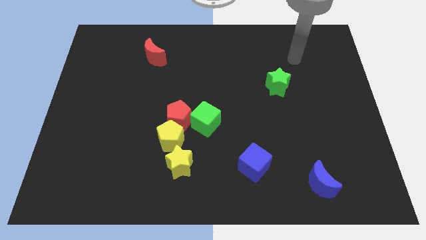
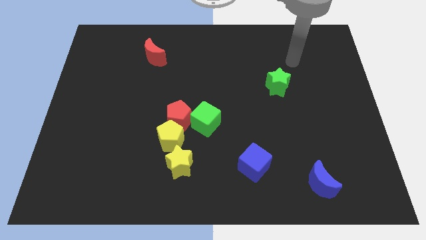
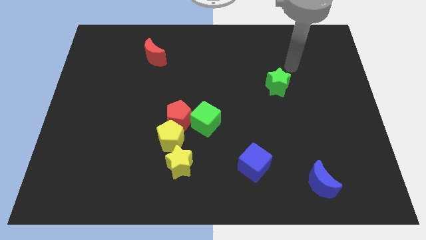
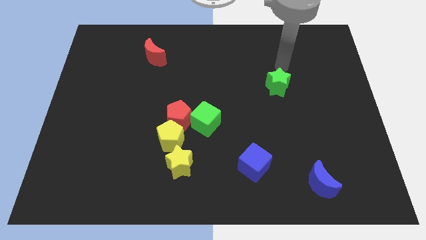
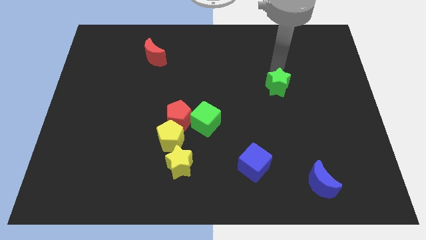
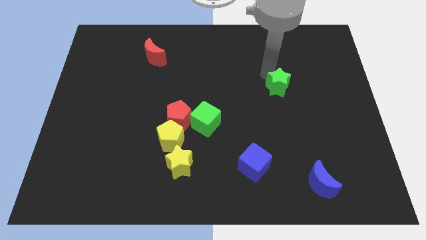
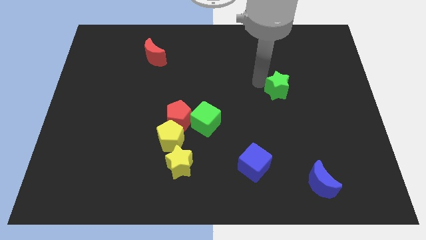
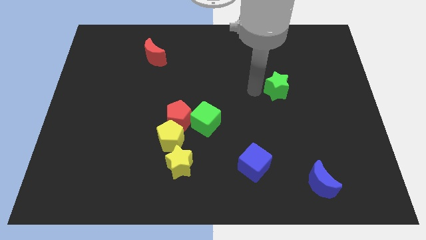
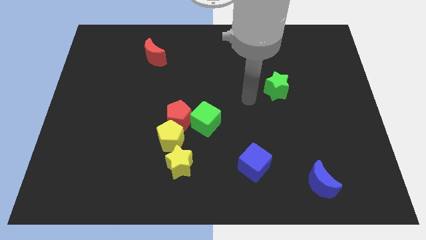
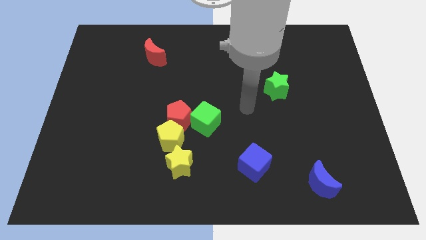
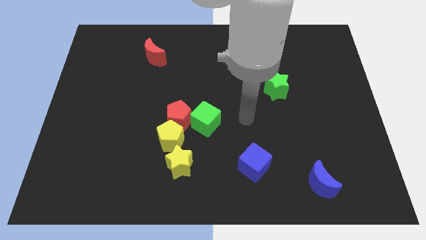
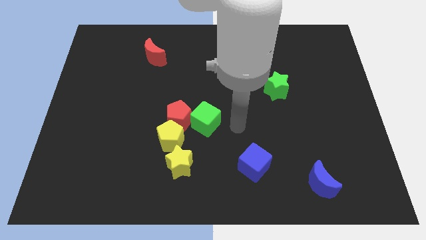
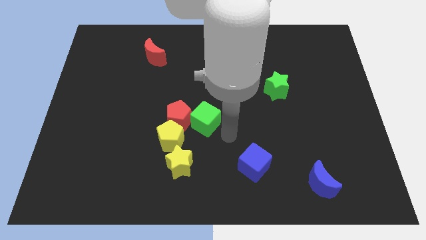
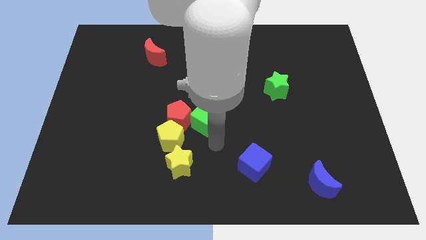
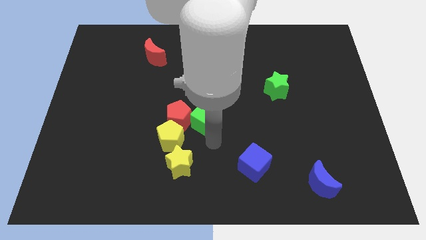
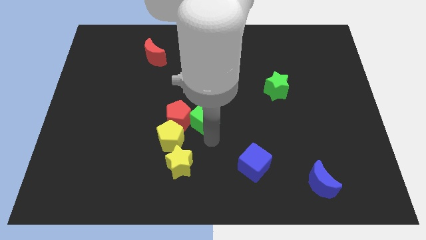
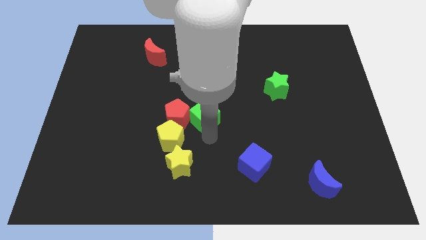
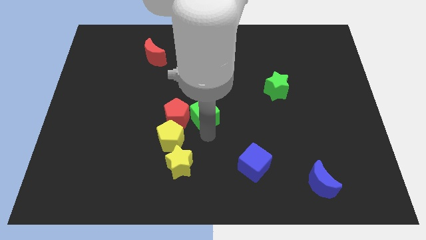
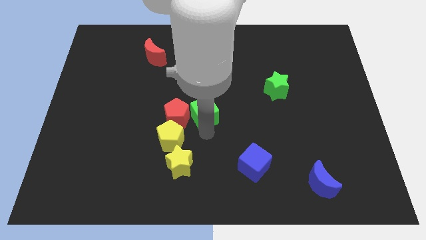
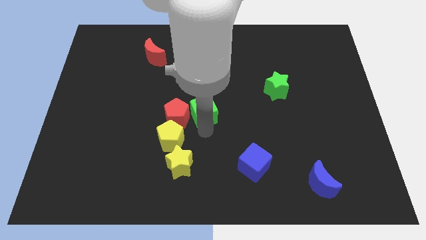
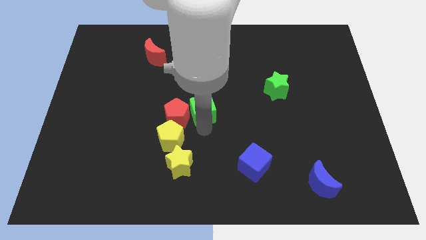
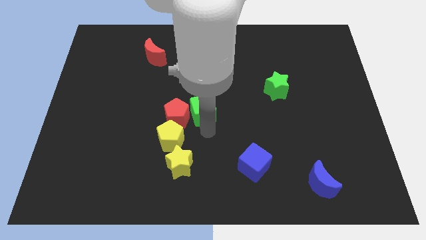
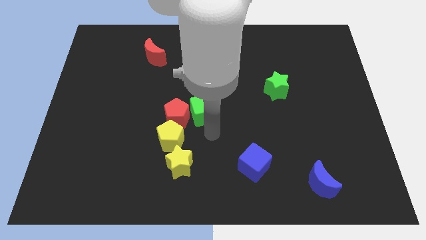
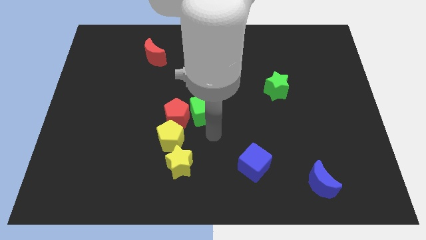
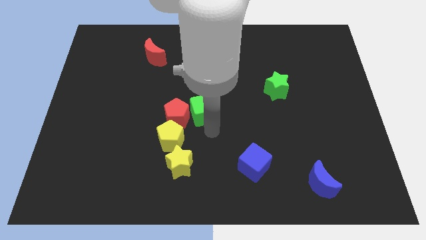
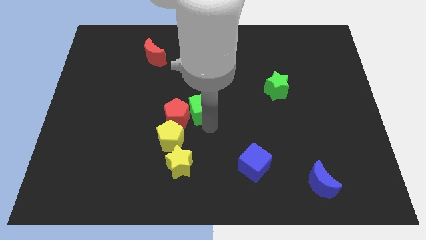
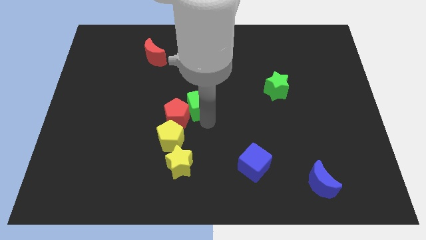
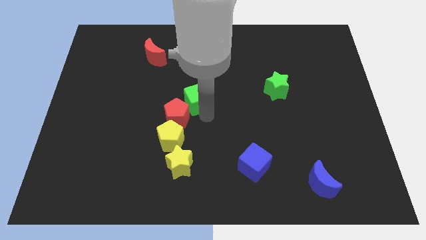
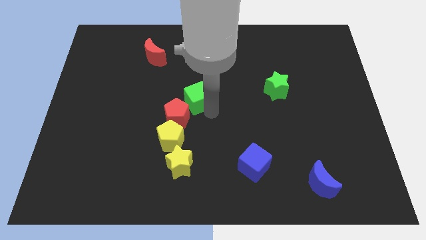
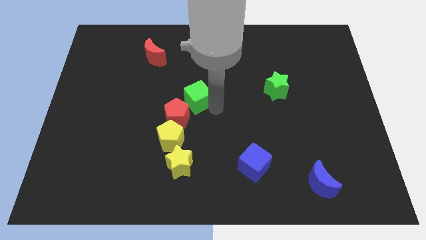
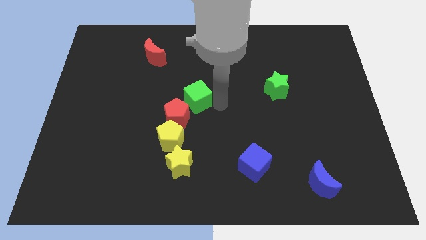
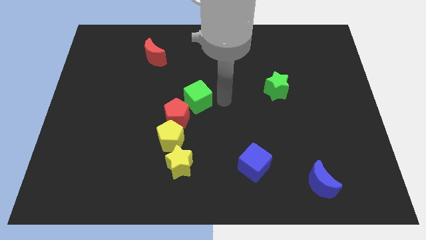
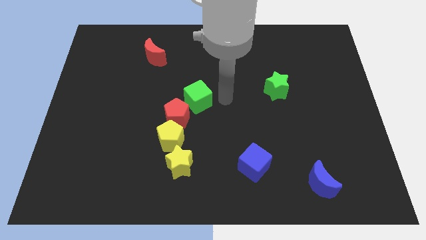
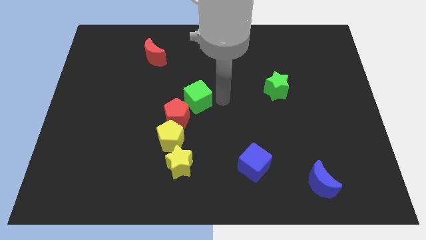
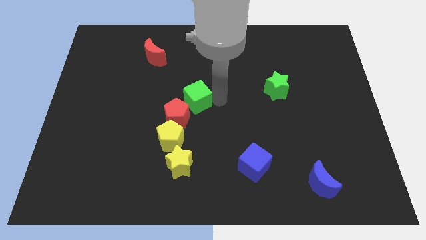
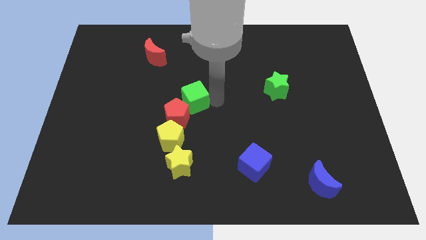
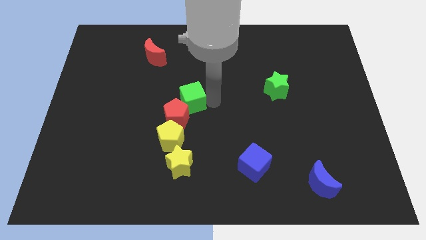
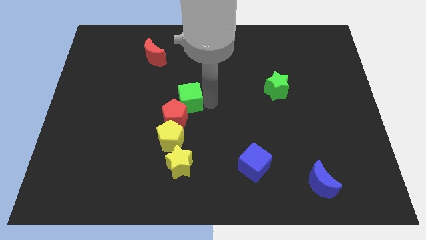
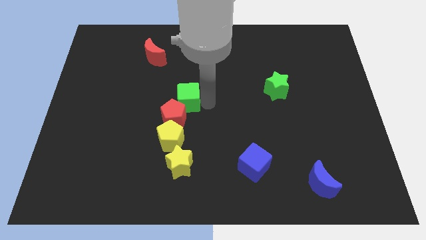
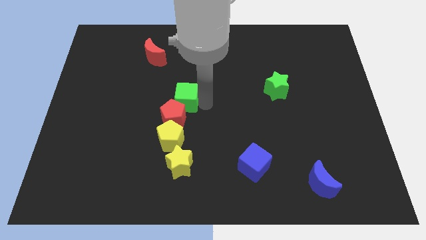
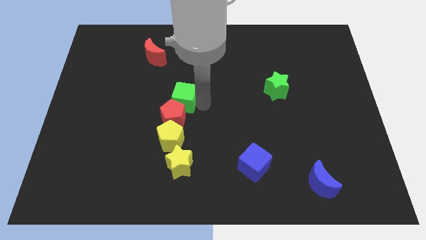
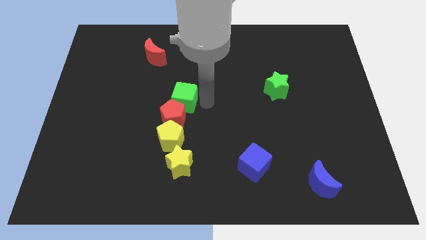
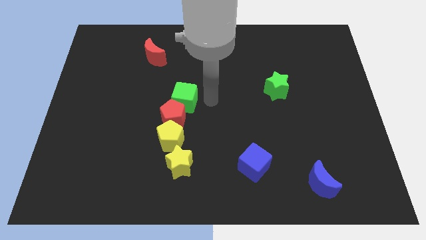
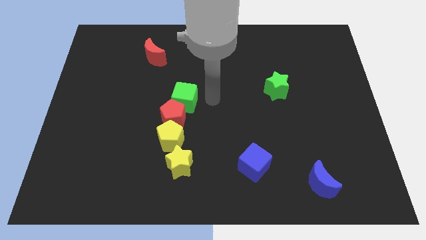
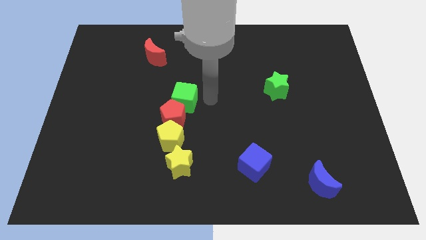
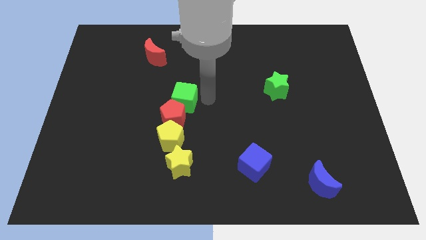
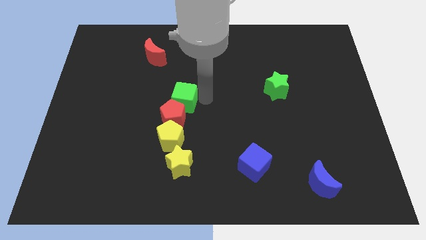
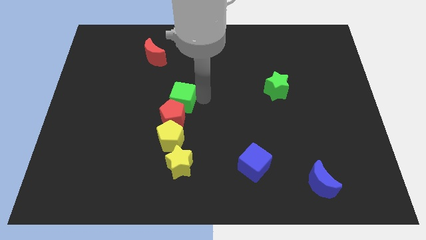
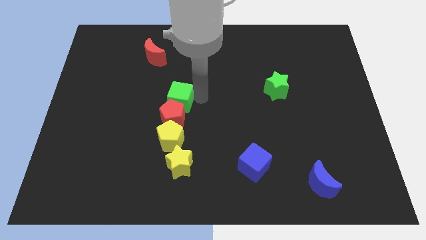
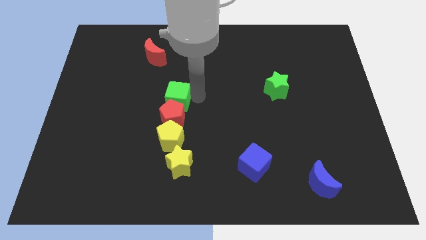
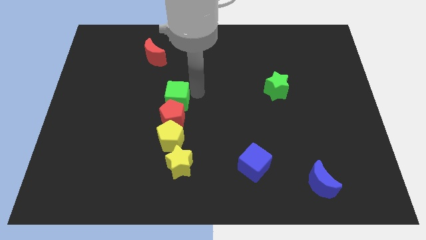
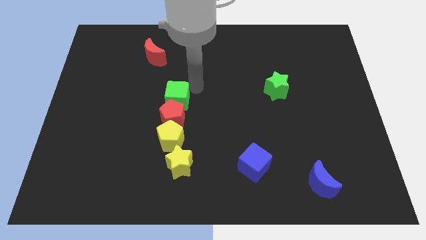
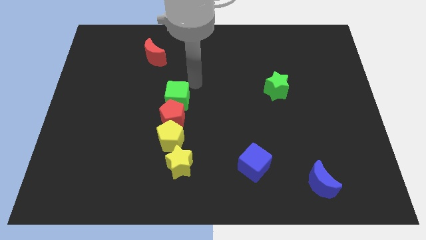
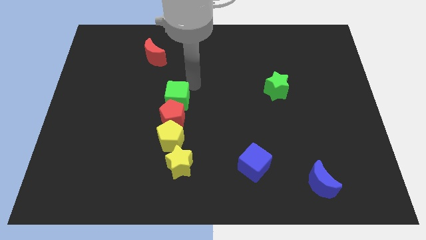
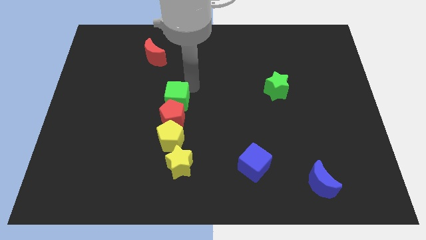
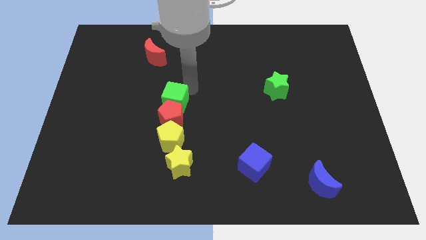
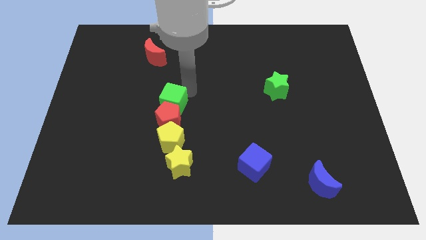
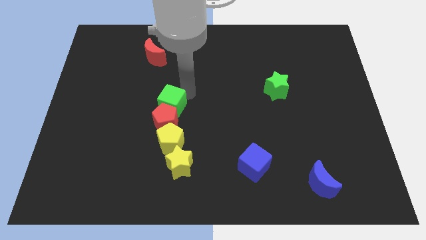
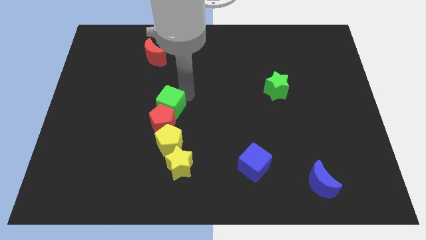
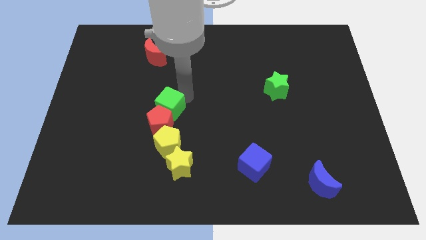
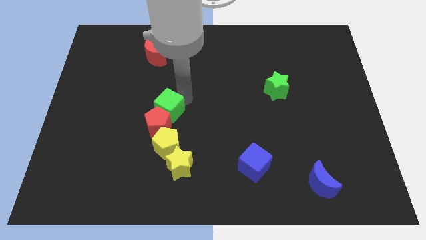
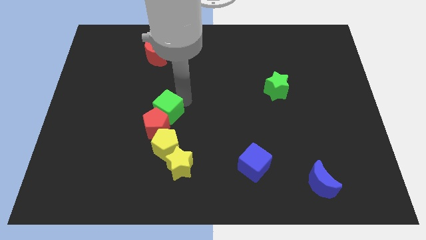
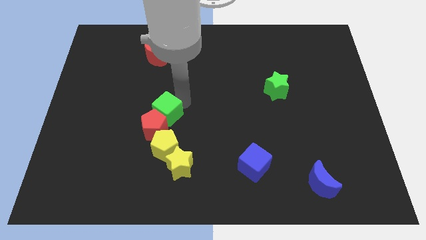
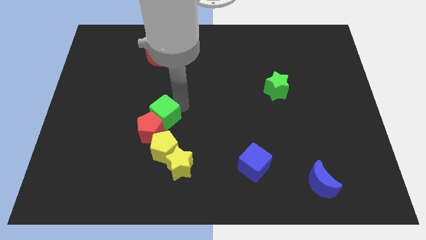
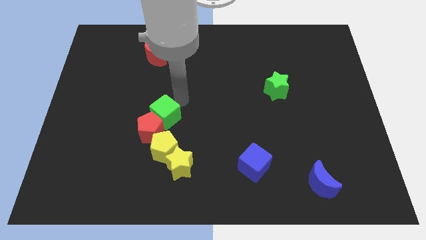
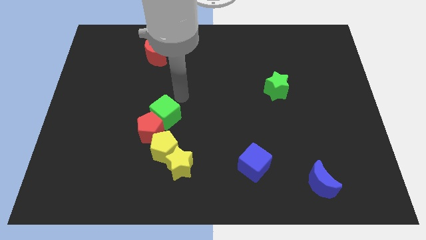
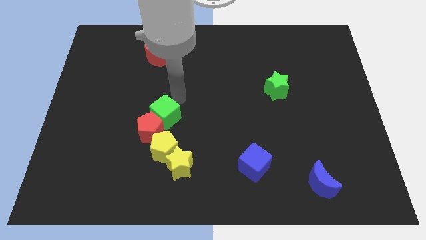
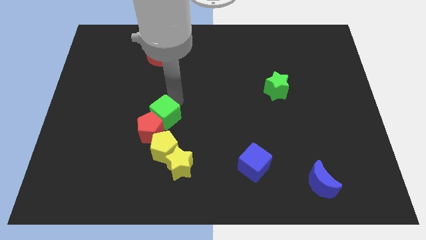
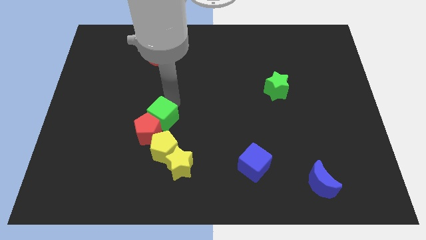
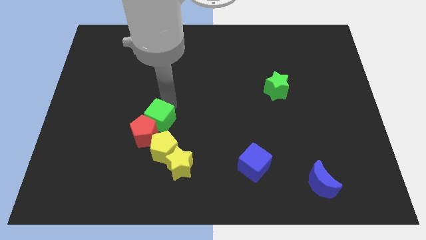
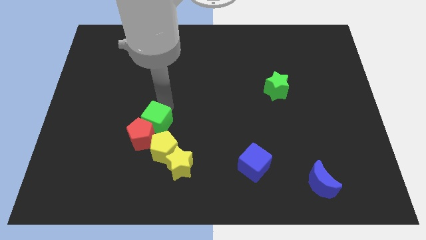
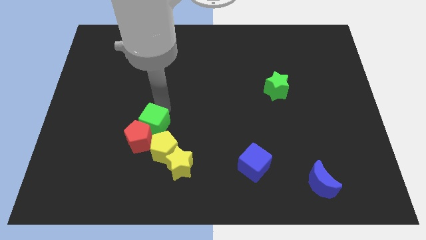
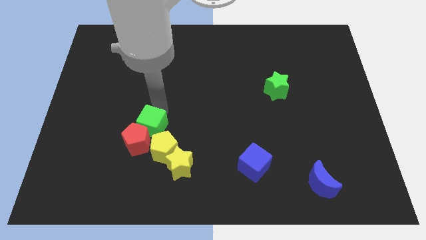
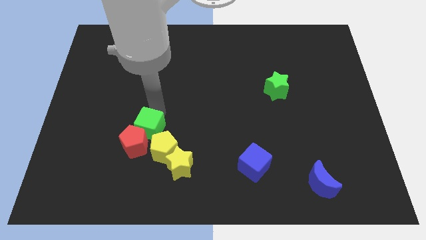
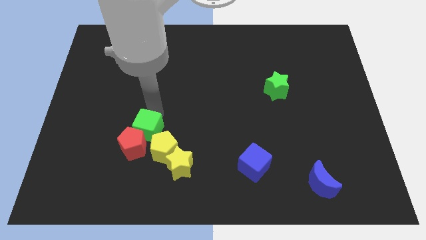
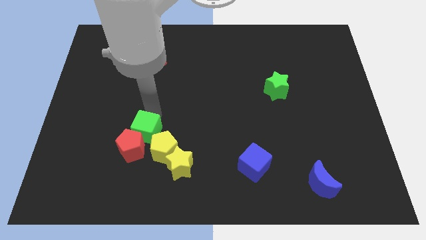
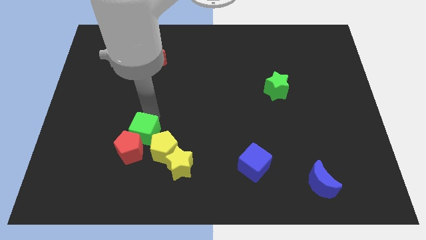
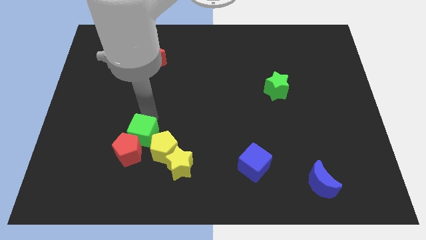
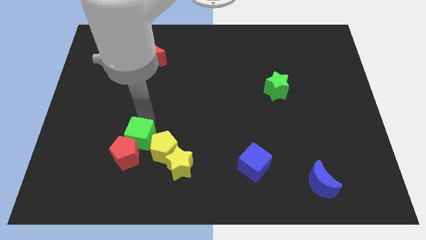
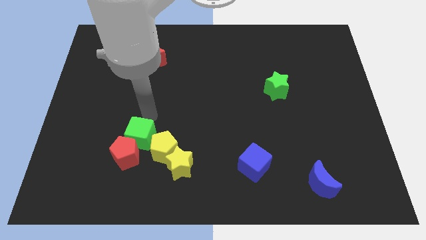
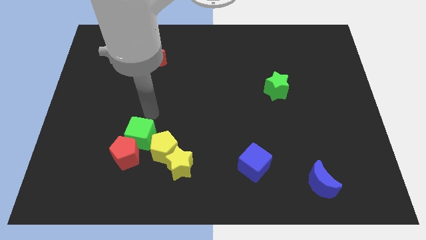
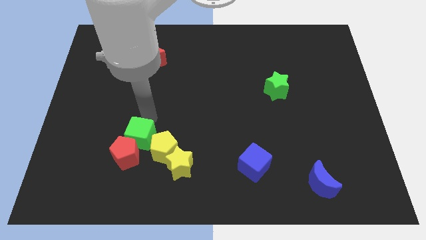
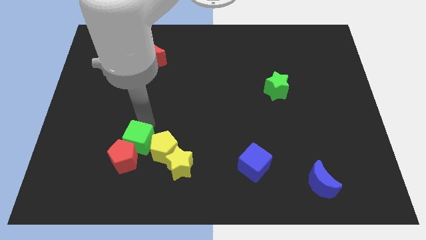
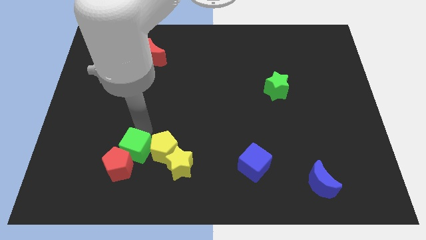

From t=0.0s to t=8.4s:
slide the green cube left of the yellow star
